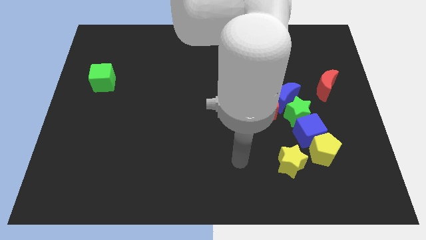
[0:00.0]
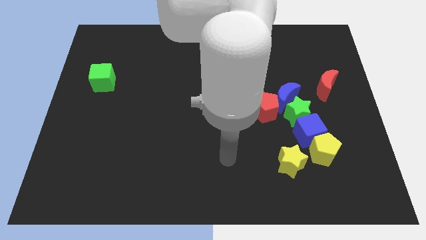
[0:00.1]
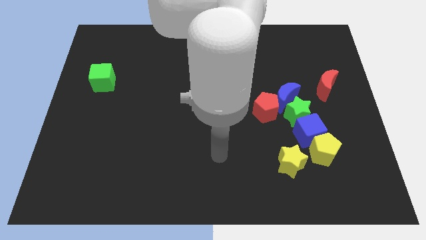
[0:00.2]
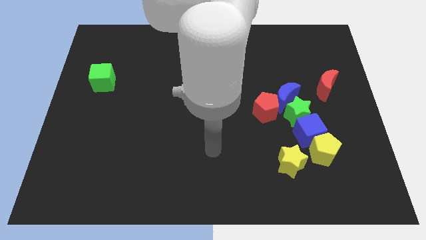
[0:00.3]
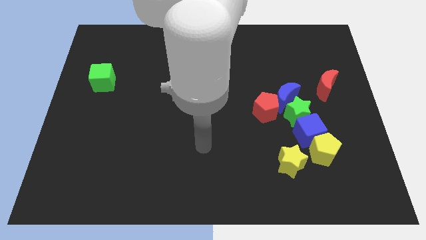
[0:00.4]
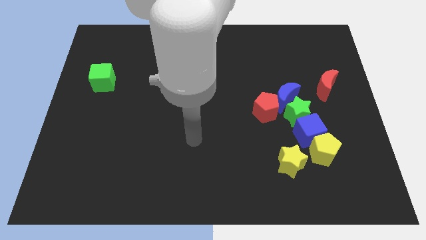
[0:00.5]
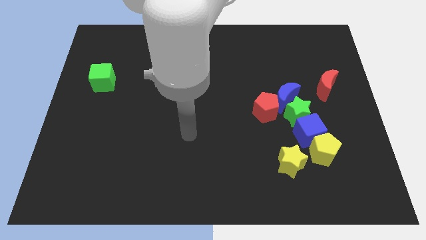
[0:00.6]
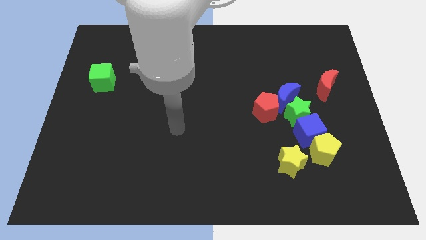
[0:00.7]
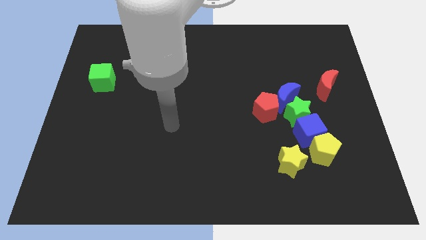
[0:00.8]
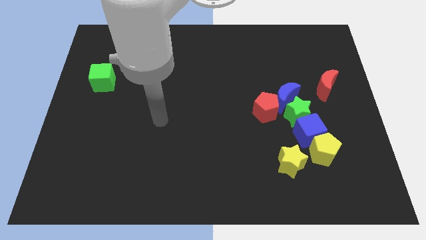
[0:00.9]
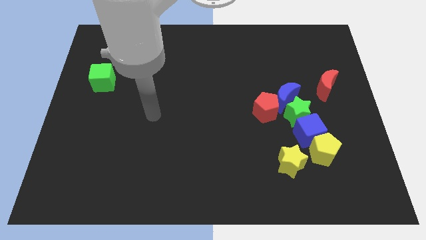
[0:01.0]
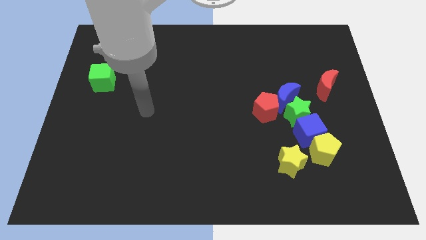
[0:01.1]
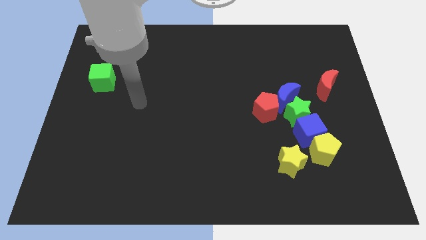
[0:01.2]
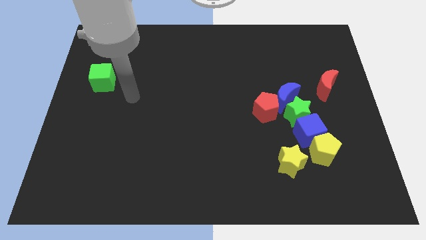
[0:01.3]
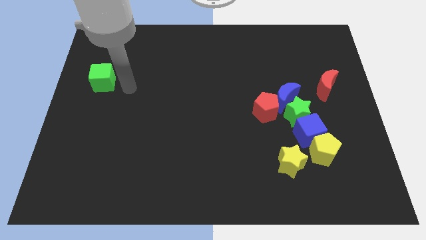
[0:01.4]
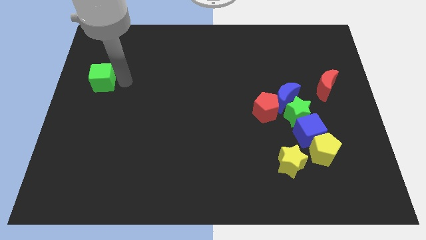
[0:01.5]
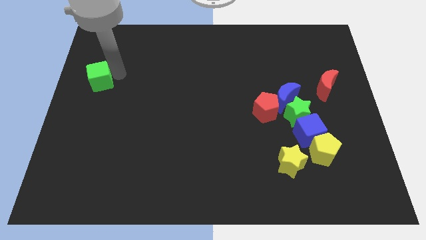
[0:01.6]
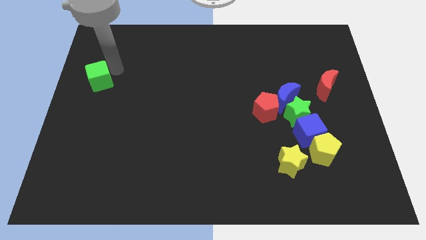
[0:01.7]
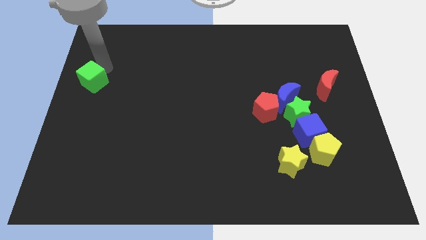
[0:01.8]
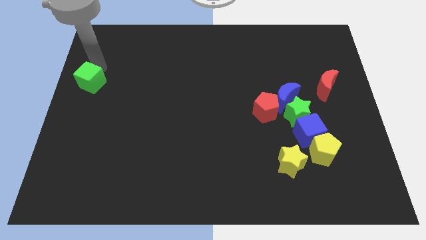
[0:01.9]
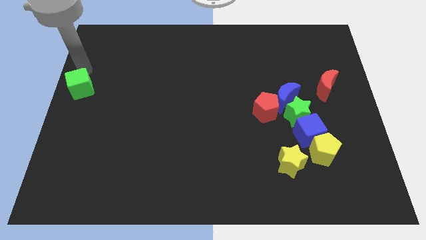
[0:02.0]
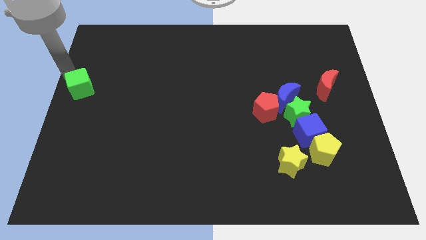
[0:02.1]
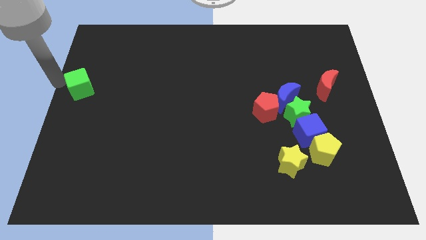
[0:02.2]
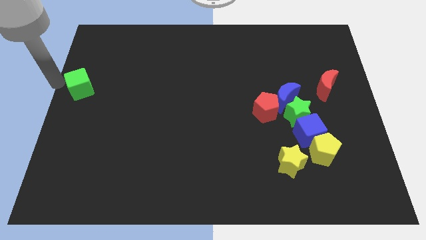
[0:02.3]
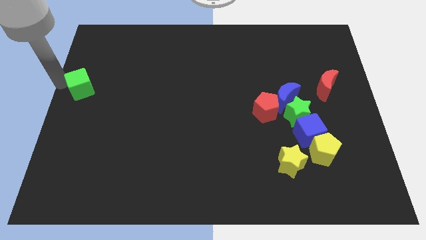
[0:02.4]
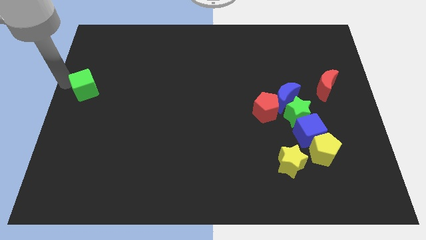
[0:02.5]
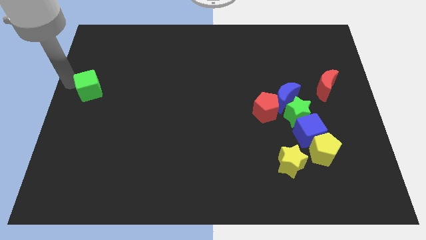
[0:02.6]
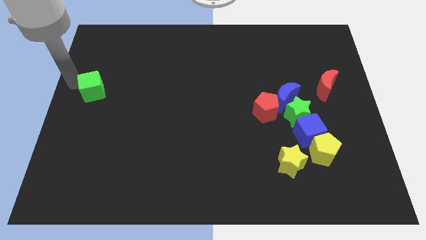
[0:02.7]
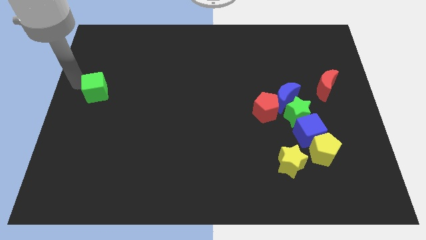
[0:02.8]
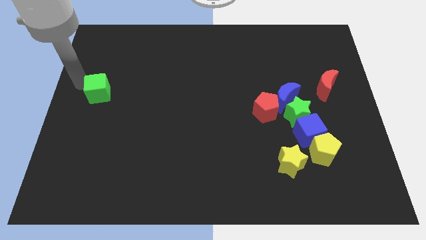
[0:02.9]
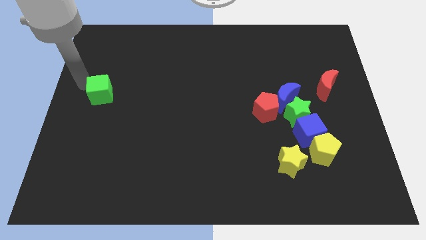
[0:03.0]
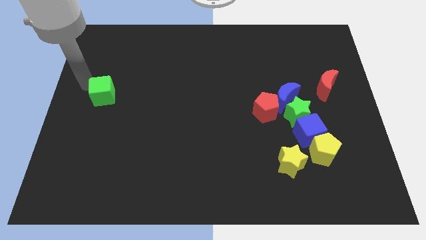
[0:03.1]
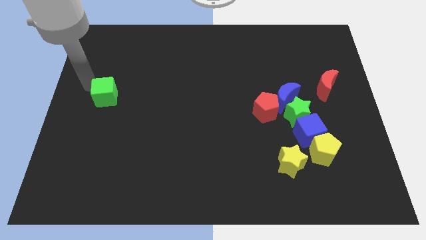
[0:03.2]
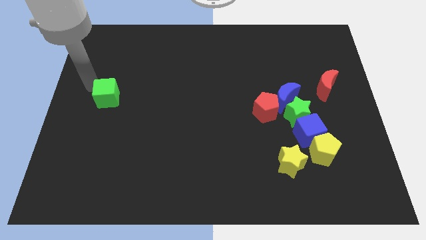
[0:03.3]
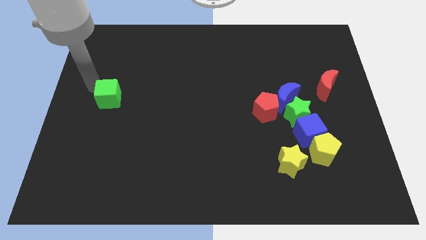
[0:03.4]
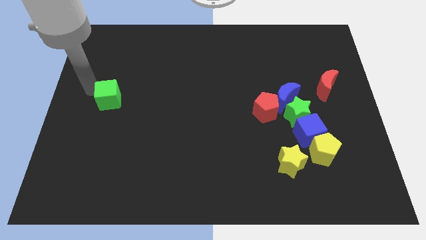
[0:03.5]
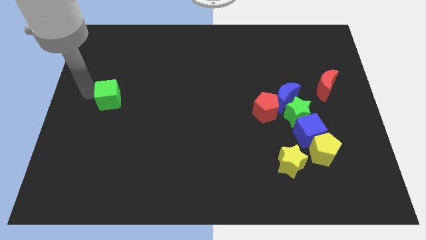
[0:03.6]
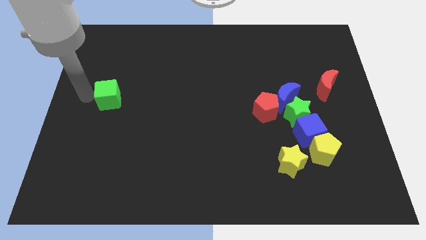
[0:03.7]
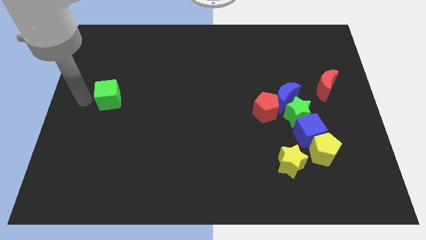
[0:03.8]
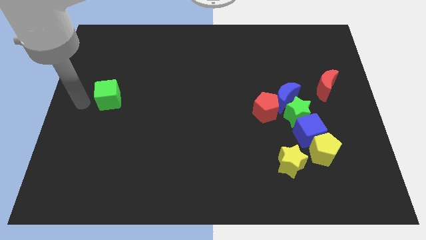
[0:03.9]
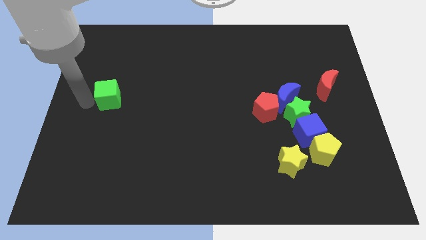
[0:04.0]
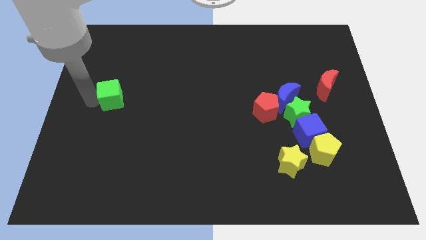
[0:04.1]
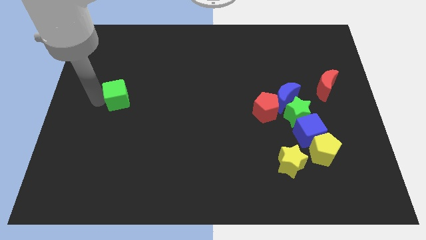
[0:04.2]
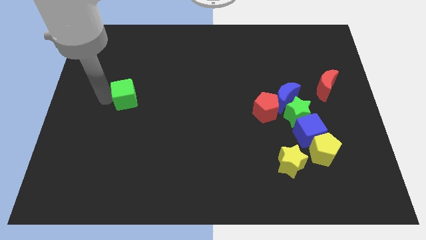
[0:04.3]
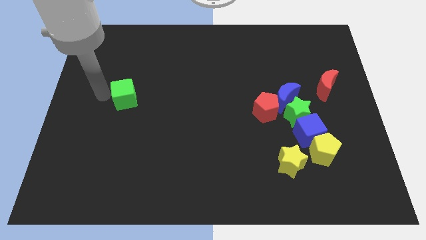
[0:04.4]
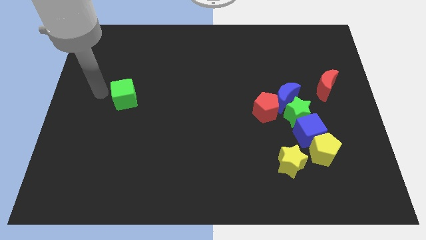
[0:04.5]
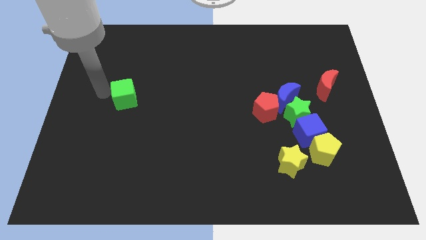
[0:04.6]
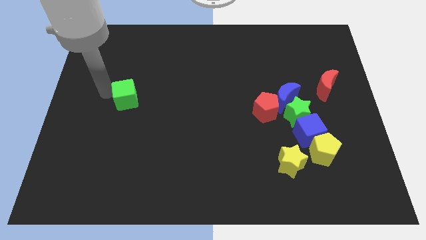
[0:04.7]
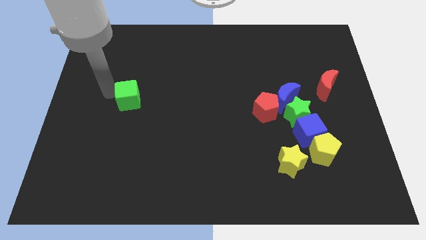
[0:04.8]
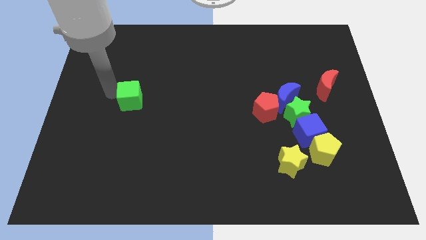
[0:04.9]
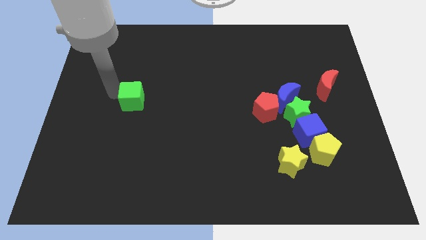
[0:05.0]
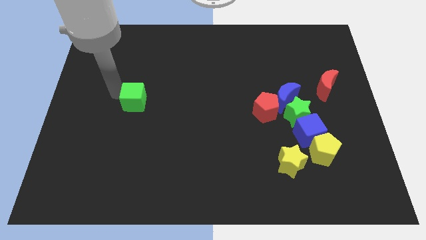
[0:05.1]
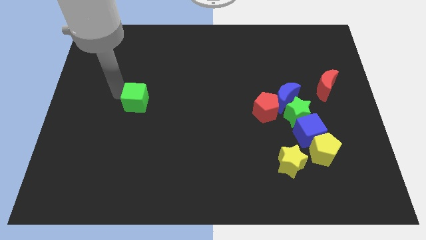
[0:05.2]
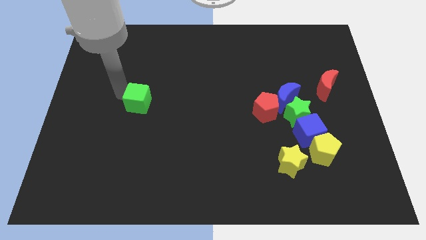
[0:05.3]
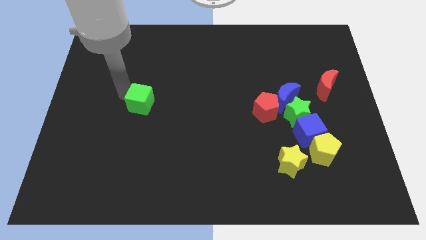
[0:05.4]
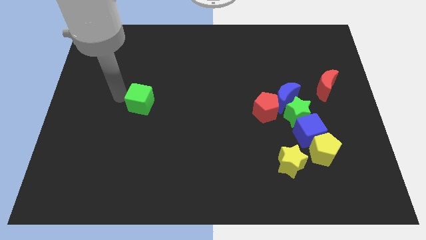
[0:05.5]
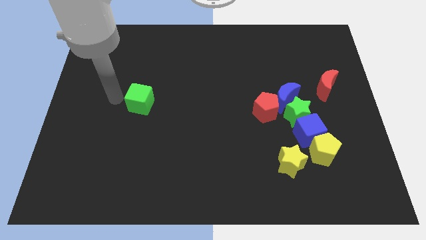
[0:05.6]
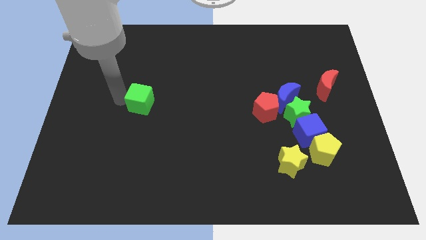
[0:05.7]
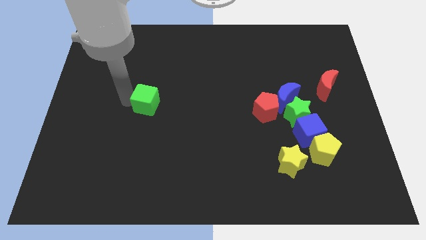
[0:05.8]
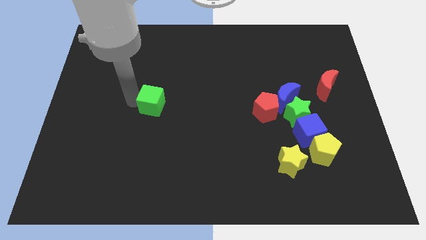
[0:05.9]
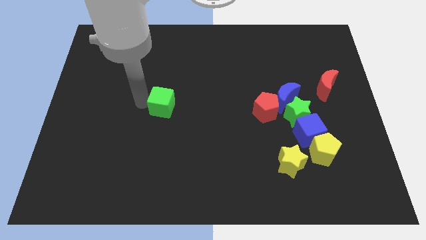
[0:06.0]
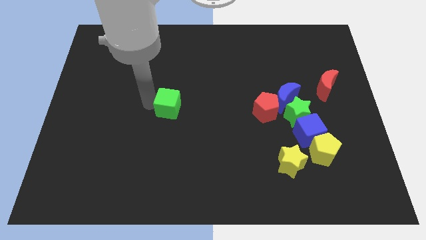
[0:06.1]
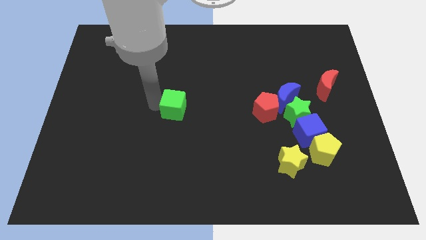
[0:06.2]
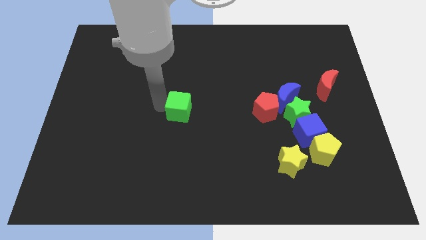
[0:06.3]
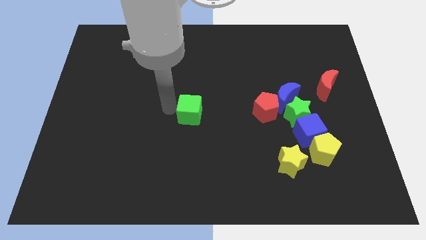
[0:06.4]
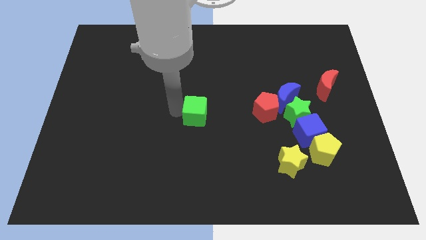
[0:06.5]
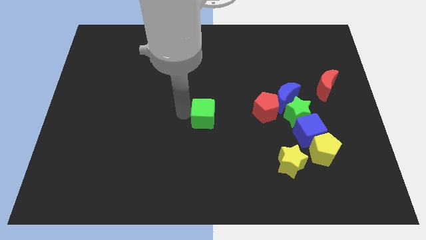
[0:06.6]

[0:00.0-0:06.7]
put the green cube to the left side of the red pentagon
